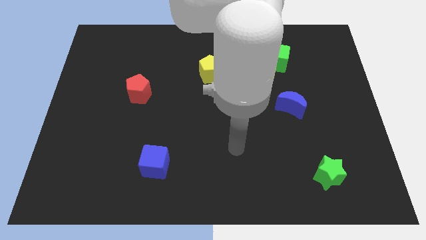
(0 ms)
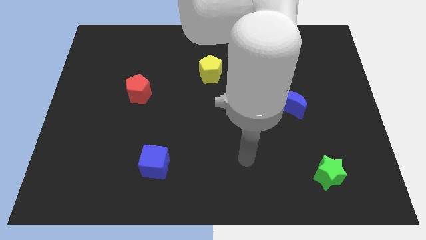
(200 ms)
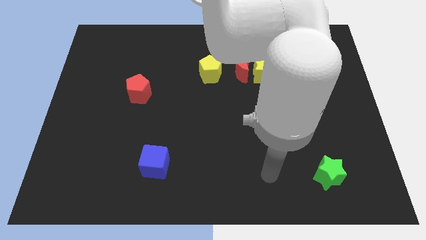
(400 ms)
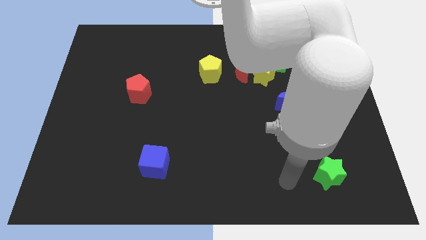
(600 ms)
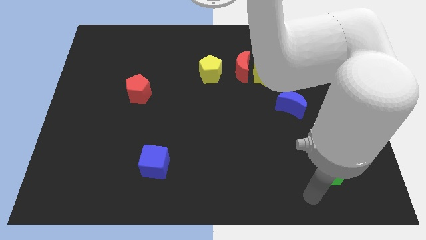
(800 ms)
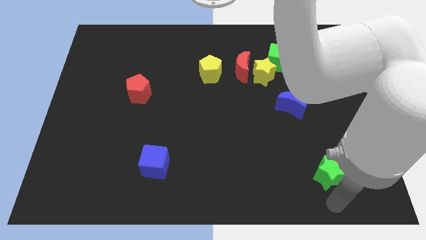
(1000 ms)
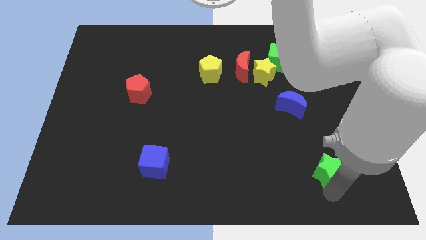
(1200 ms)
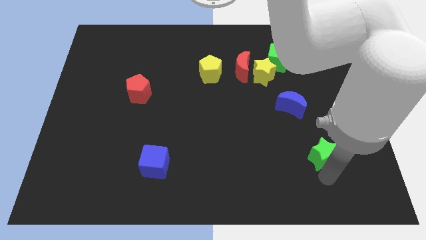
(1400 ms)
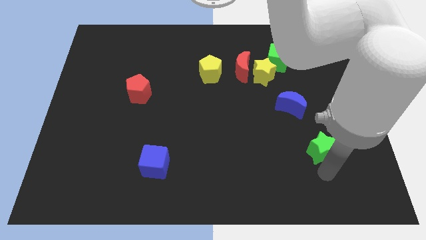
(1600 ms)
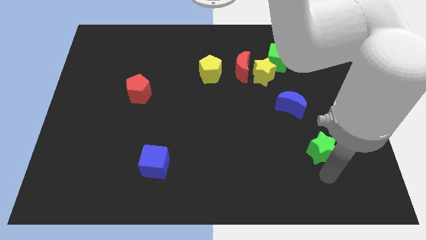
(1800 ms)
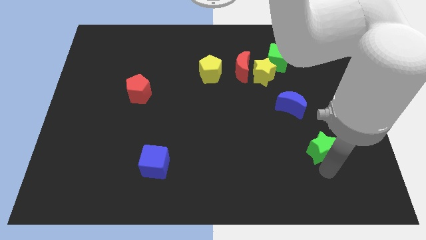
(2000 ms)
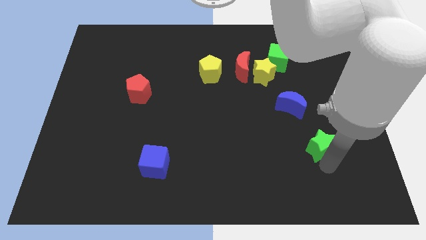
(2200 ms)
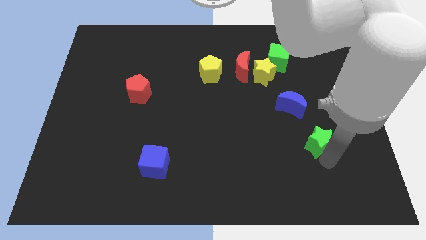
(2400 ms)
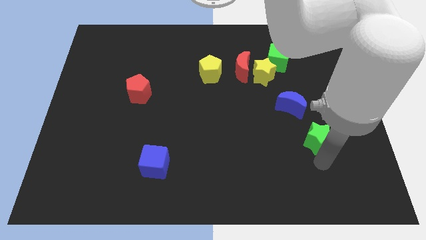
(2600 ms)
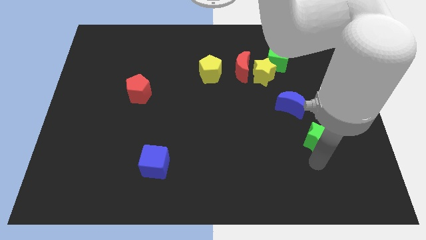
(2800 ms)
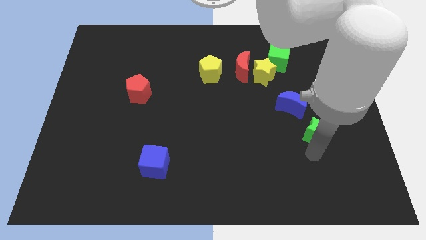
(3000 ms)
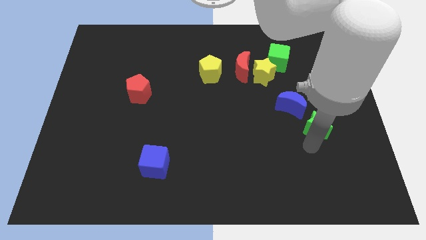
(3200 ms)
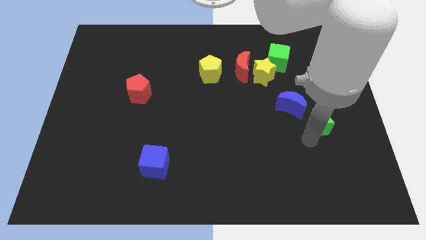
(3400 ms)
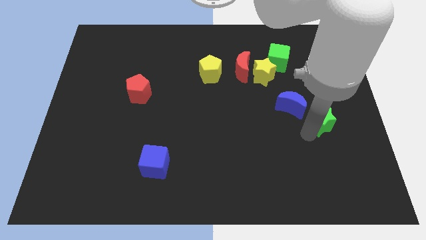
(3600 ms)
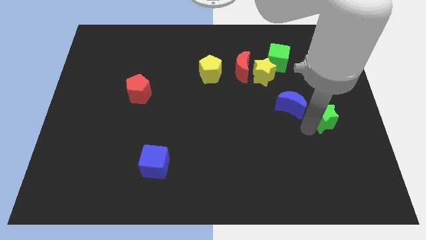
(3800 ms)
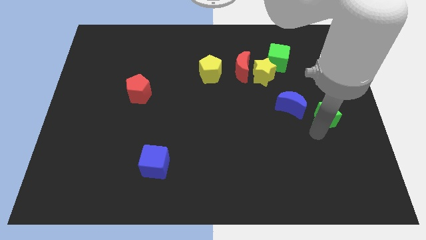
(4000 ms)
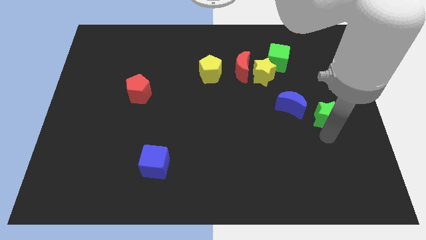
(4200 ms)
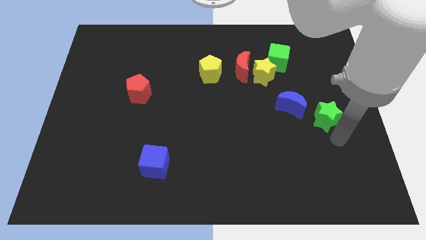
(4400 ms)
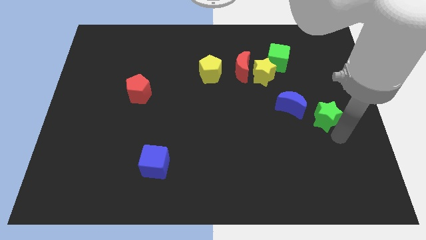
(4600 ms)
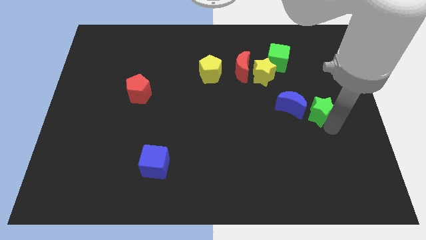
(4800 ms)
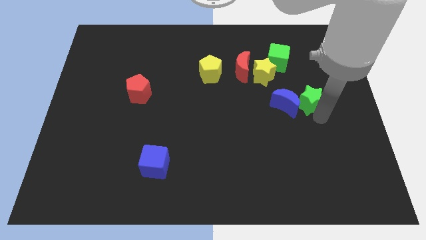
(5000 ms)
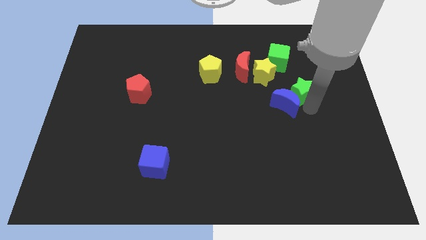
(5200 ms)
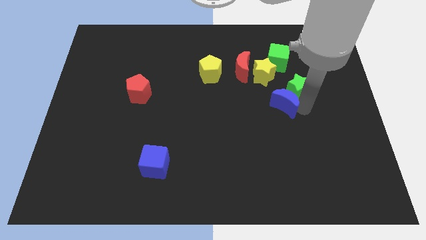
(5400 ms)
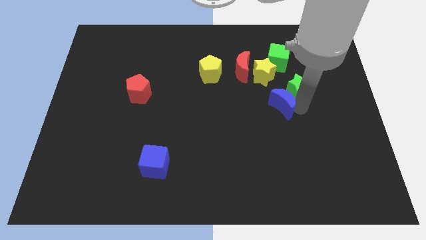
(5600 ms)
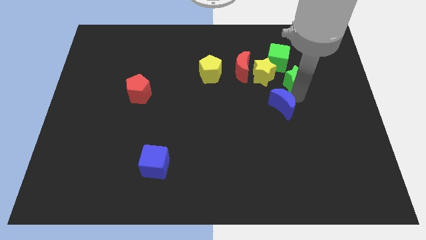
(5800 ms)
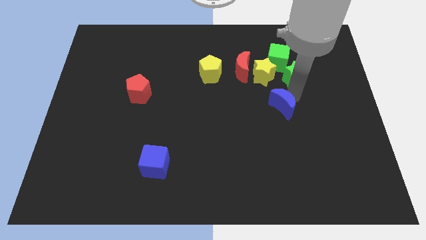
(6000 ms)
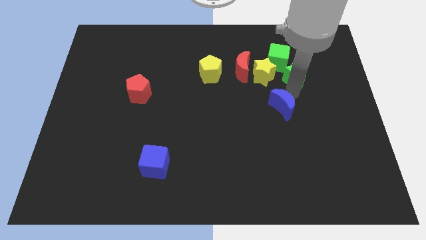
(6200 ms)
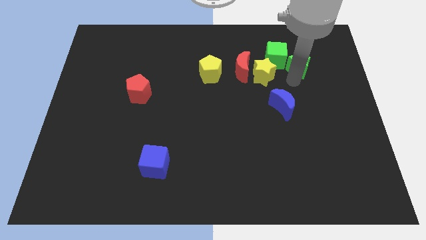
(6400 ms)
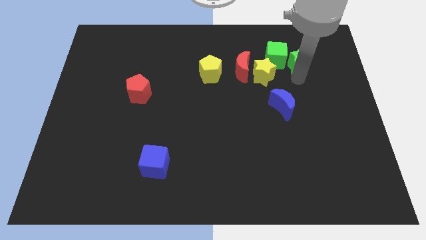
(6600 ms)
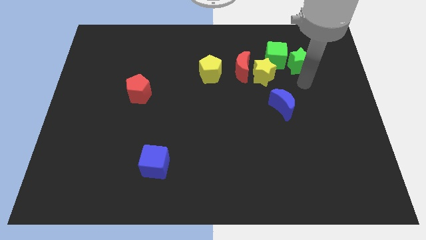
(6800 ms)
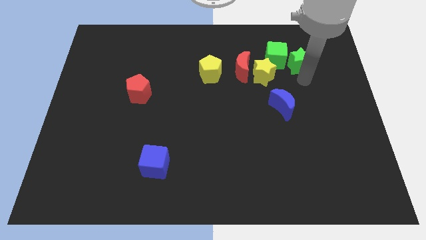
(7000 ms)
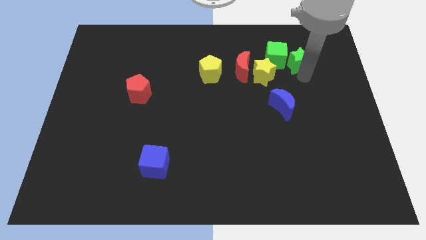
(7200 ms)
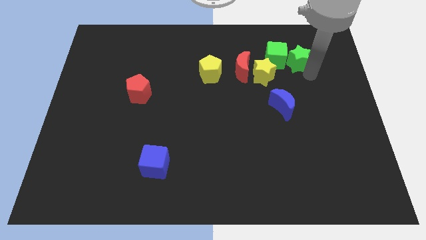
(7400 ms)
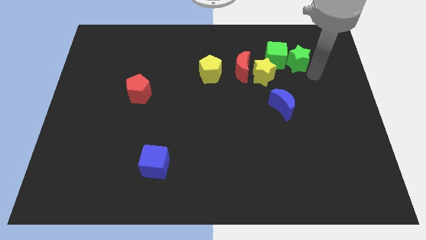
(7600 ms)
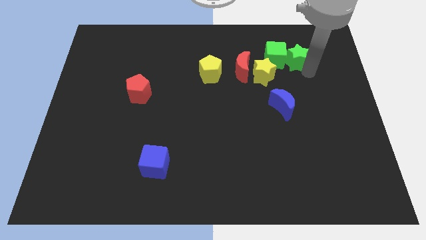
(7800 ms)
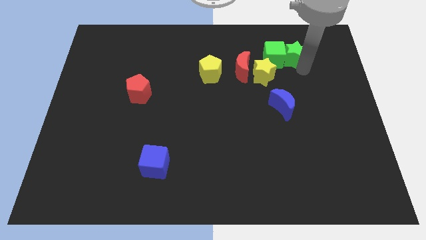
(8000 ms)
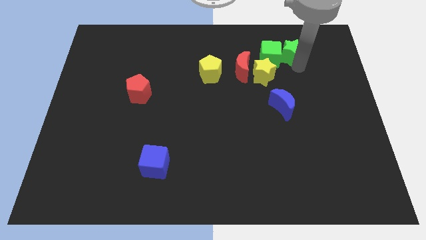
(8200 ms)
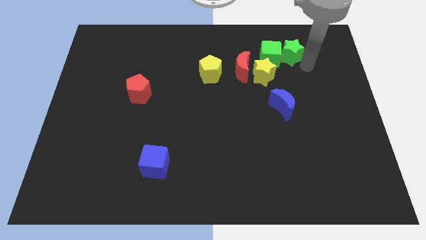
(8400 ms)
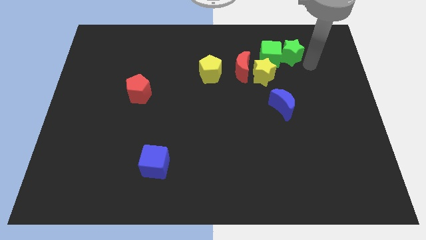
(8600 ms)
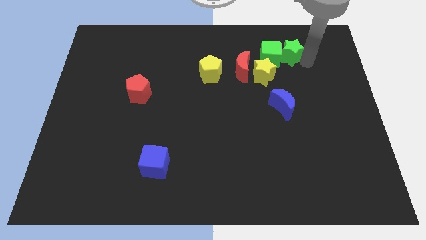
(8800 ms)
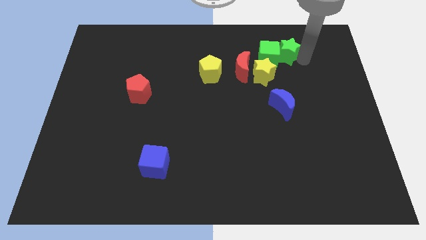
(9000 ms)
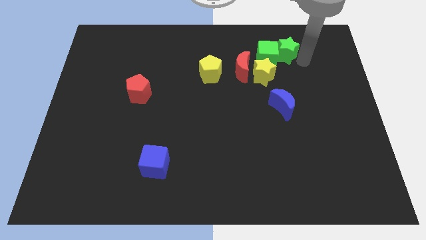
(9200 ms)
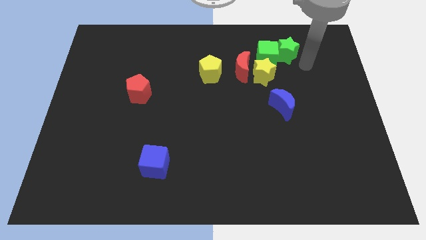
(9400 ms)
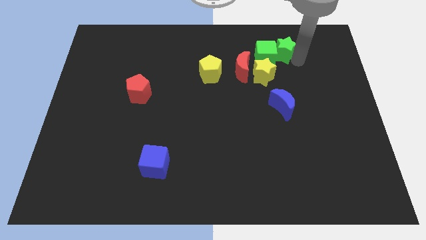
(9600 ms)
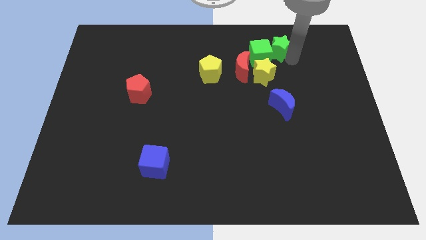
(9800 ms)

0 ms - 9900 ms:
put the green star diagonally up and to the right of the red moon

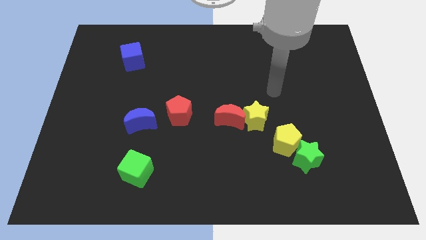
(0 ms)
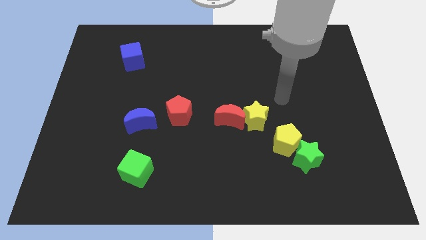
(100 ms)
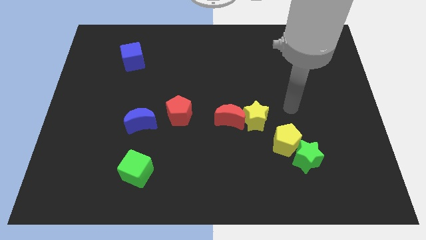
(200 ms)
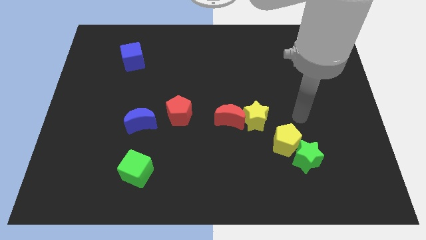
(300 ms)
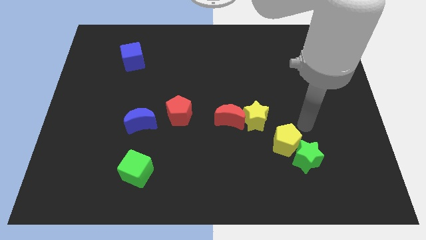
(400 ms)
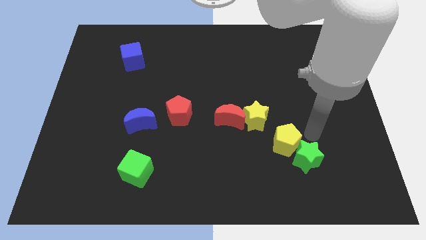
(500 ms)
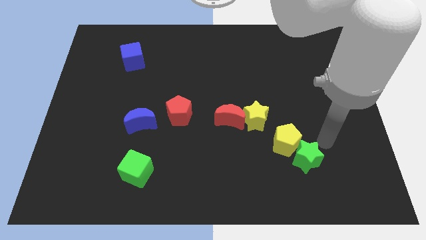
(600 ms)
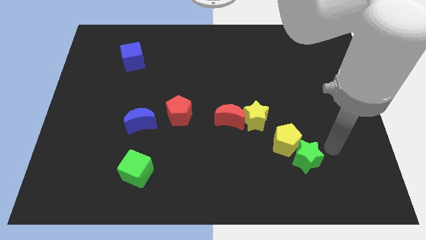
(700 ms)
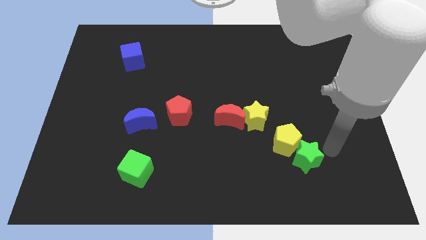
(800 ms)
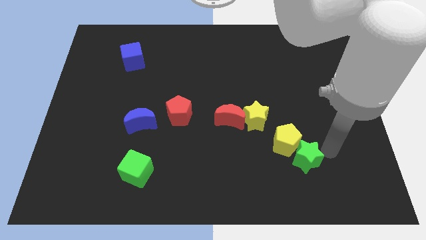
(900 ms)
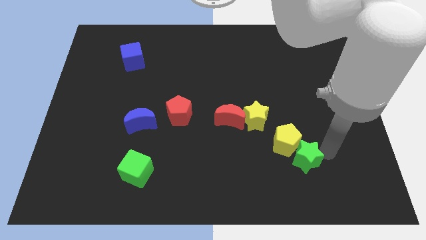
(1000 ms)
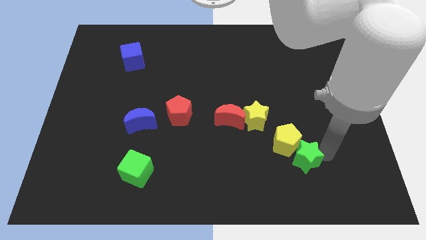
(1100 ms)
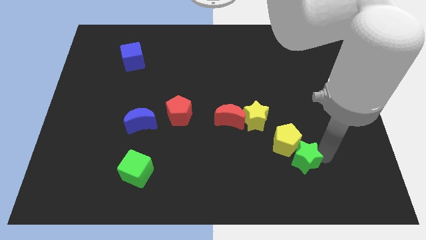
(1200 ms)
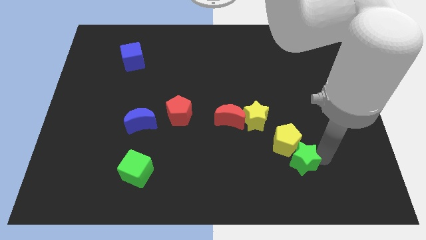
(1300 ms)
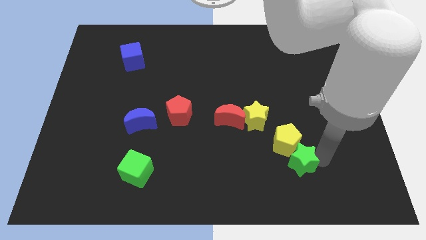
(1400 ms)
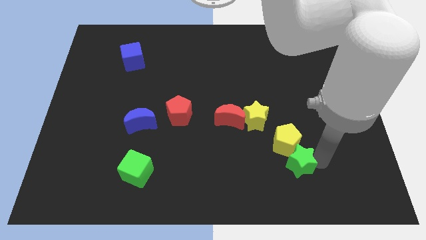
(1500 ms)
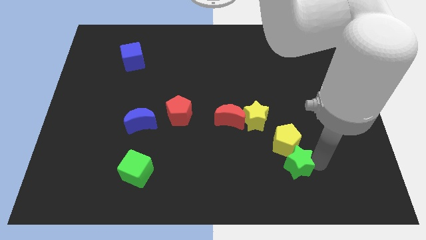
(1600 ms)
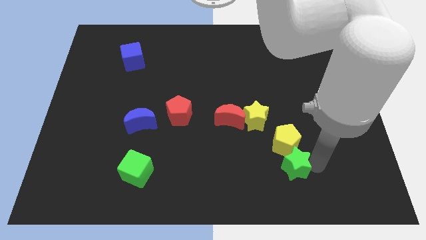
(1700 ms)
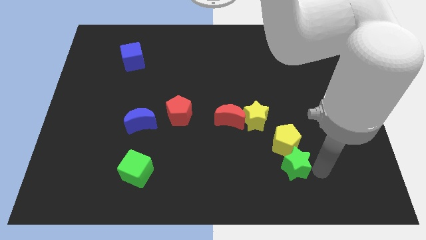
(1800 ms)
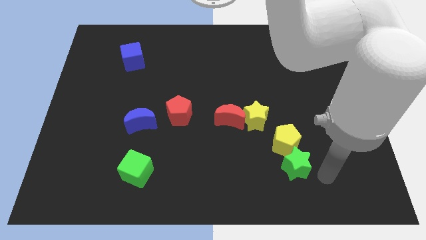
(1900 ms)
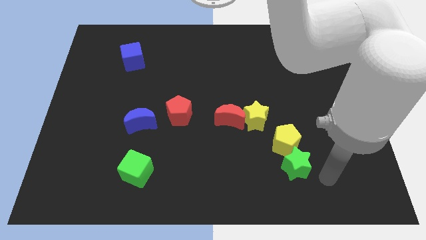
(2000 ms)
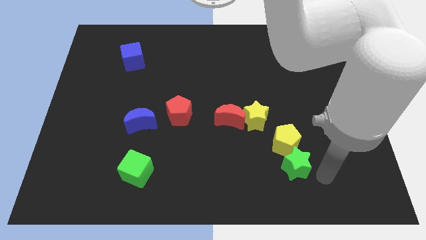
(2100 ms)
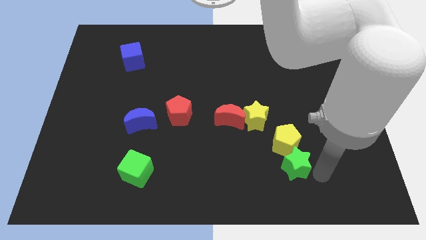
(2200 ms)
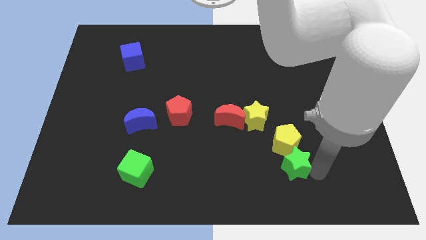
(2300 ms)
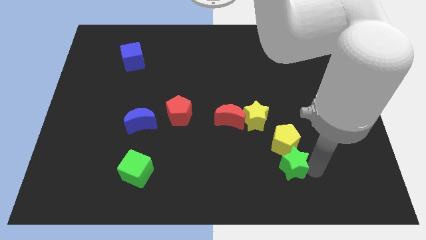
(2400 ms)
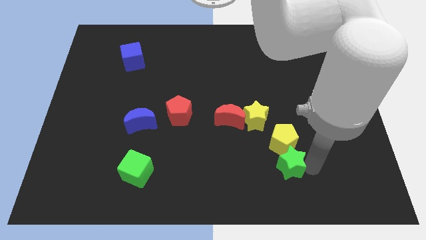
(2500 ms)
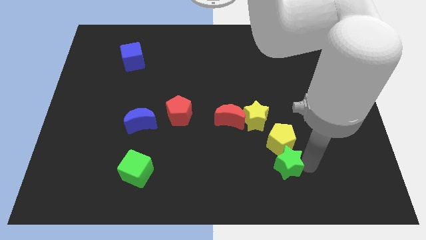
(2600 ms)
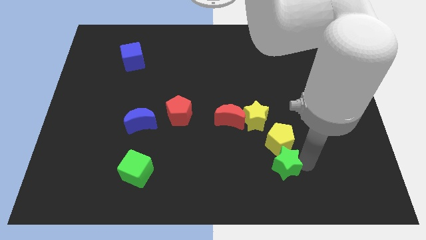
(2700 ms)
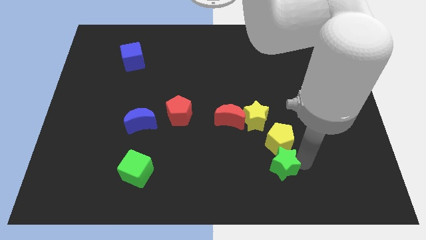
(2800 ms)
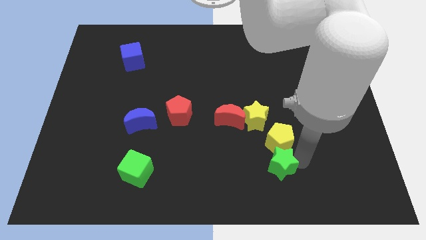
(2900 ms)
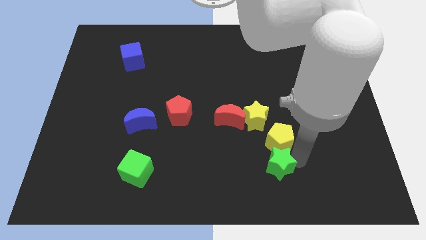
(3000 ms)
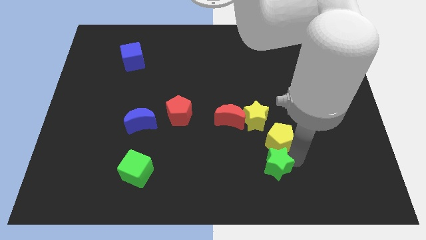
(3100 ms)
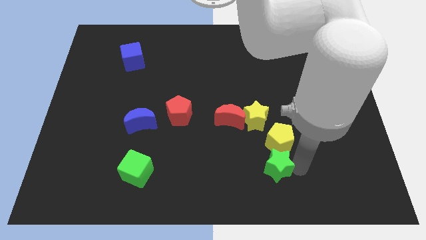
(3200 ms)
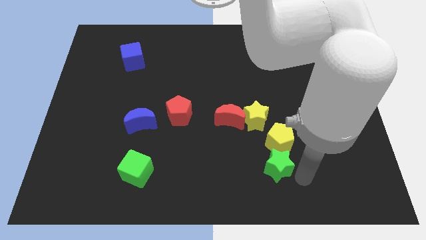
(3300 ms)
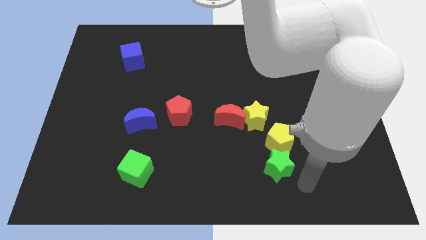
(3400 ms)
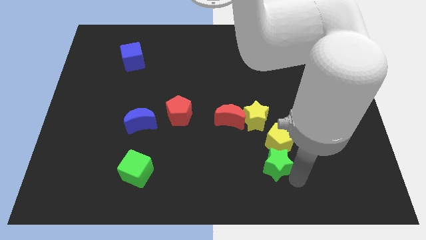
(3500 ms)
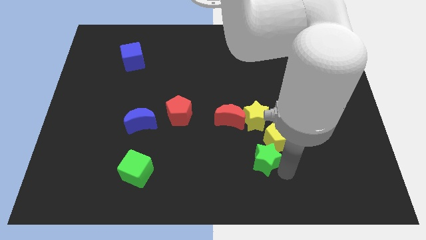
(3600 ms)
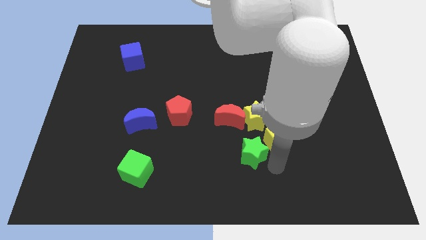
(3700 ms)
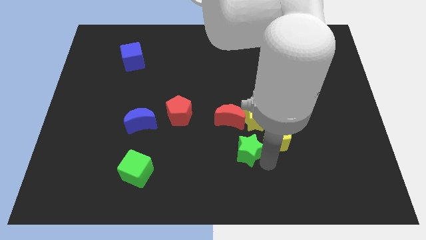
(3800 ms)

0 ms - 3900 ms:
push the green star to the bottom left of the yellow star
